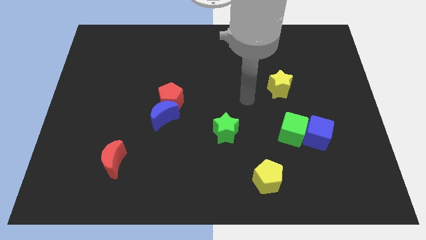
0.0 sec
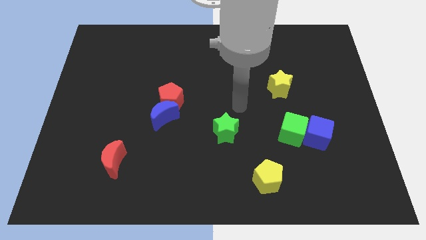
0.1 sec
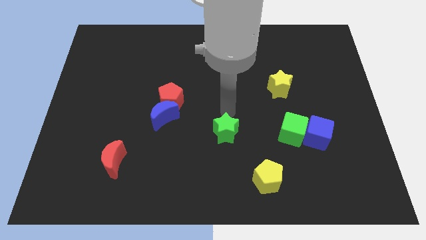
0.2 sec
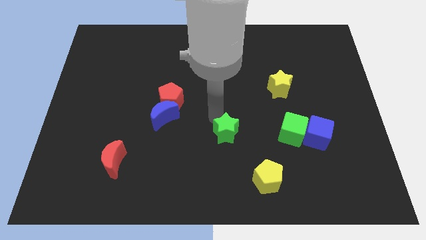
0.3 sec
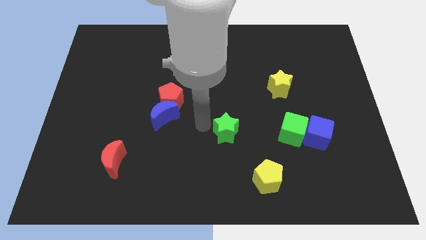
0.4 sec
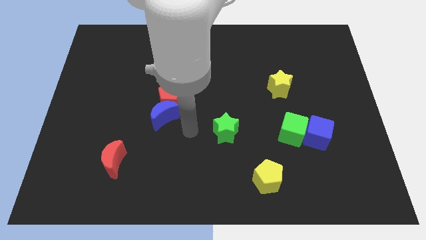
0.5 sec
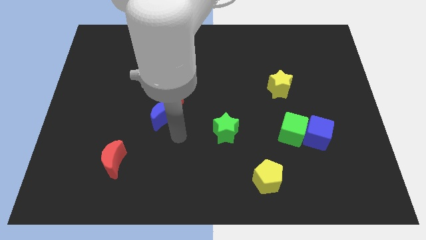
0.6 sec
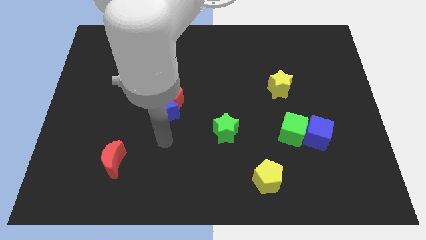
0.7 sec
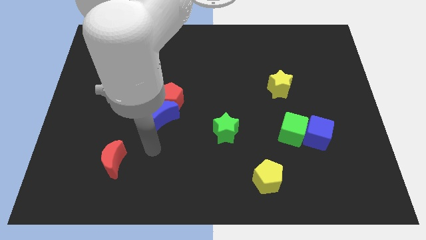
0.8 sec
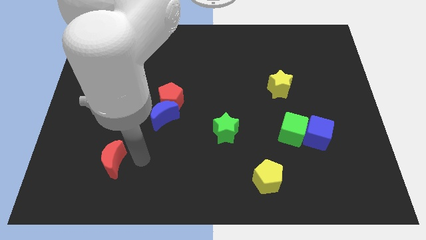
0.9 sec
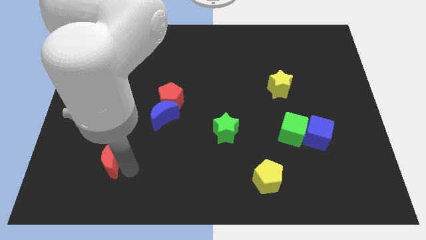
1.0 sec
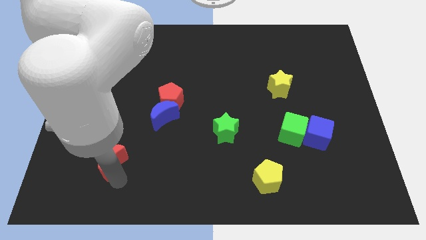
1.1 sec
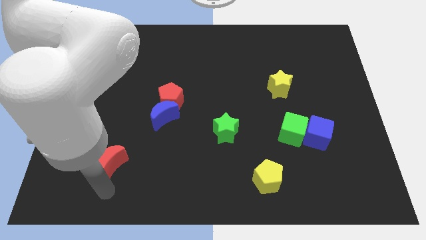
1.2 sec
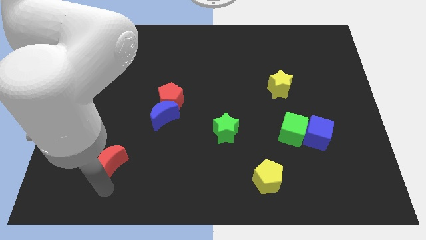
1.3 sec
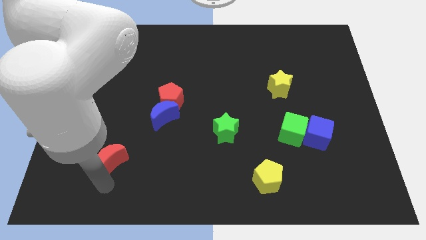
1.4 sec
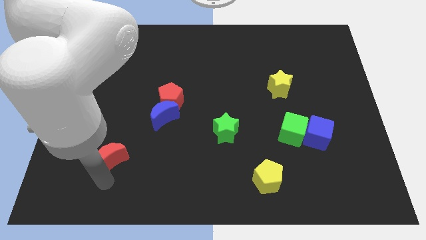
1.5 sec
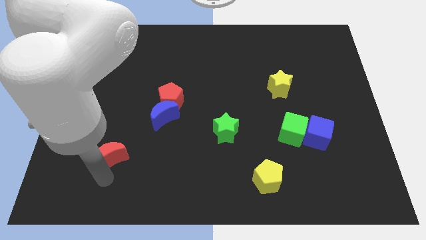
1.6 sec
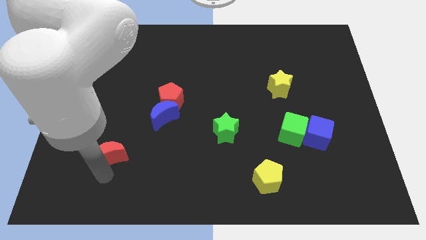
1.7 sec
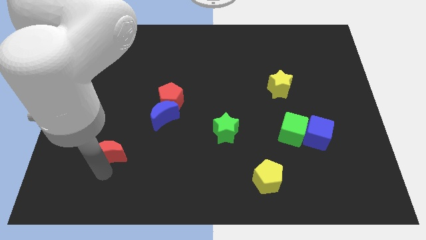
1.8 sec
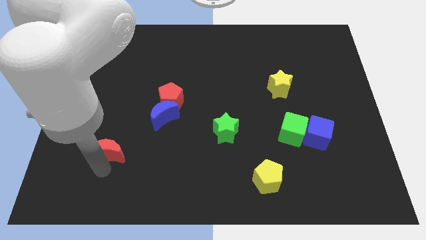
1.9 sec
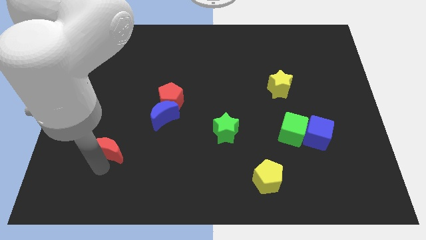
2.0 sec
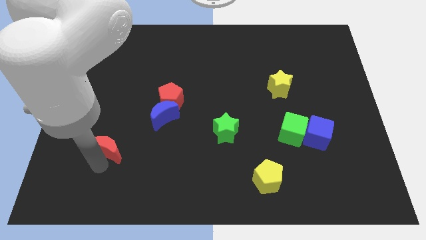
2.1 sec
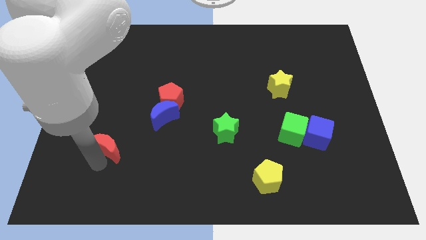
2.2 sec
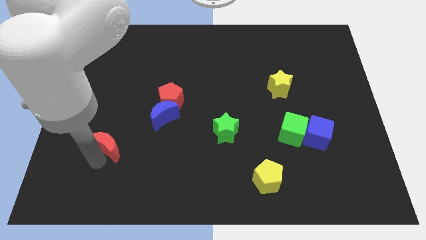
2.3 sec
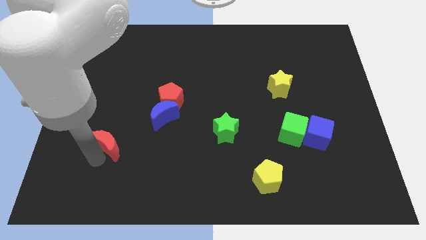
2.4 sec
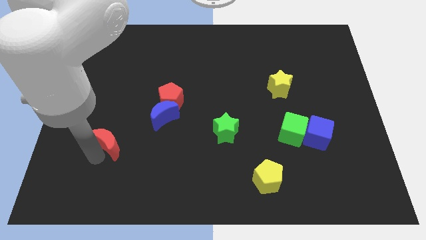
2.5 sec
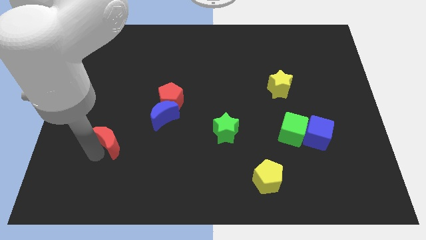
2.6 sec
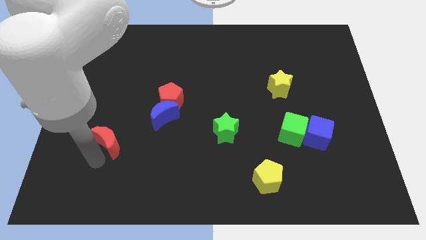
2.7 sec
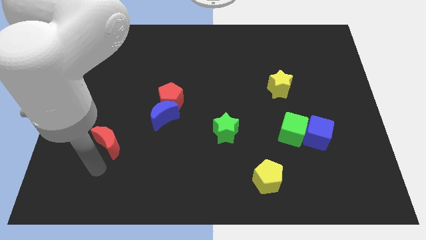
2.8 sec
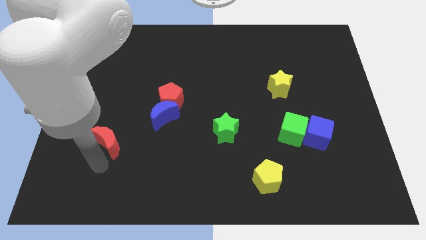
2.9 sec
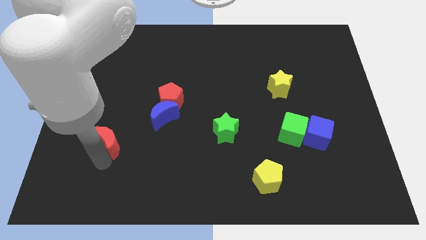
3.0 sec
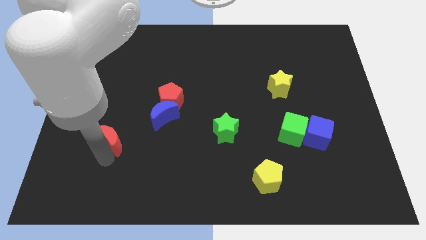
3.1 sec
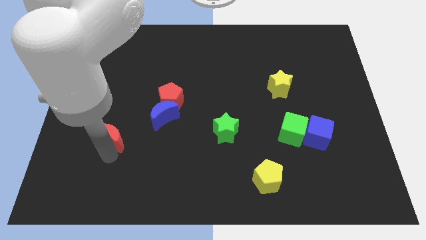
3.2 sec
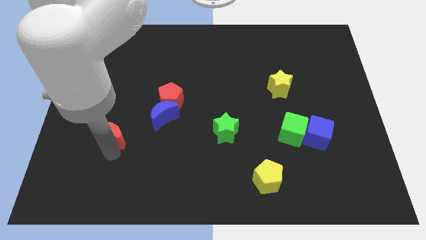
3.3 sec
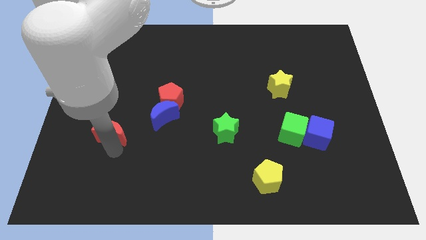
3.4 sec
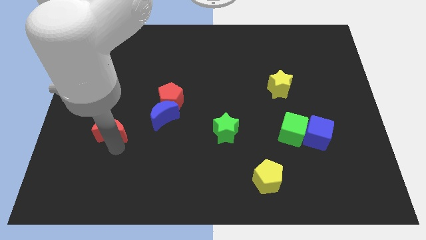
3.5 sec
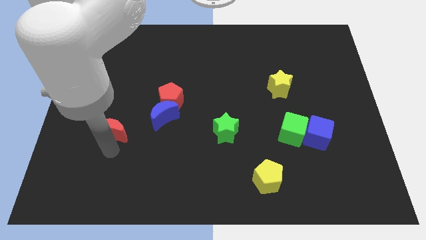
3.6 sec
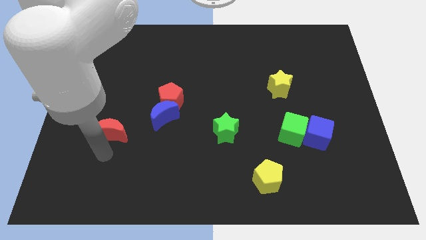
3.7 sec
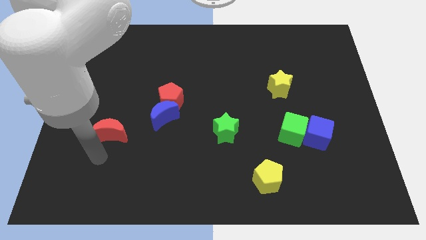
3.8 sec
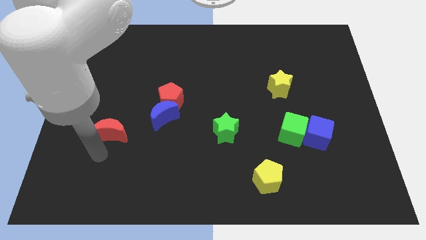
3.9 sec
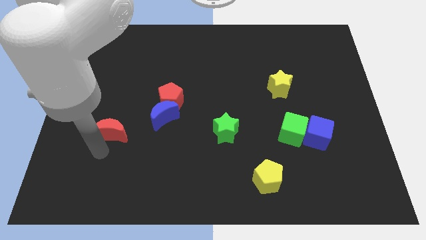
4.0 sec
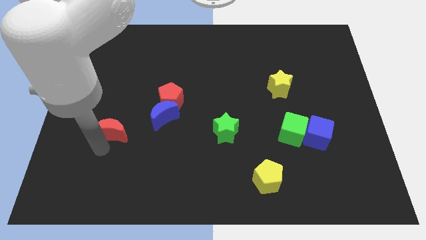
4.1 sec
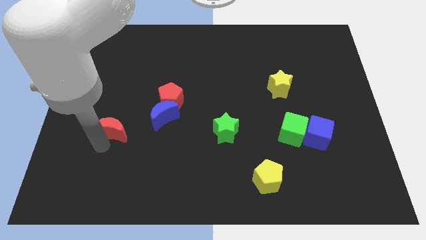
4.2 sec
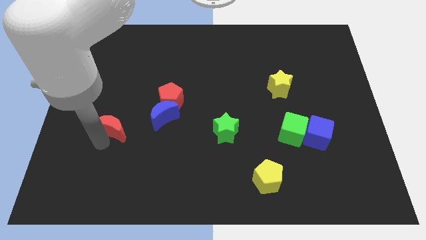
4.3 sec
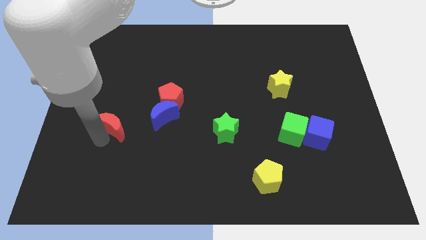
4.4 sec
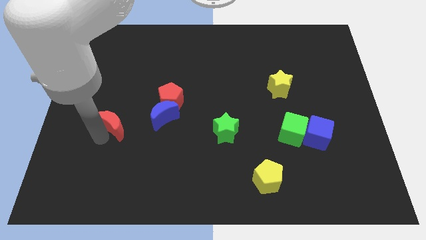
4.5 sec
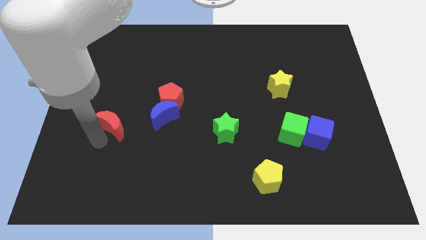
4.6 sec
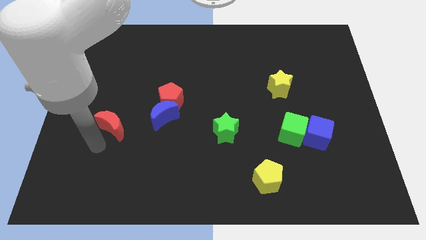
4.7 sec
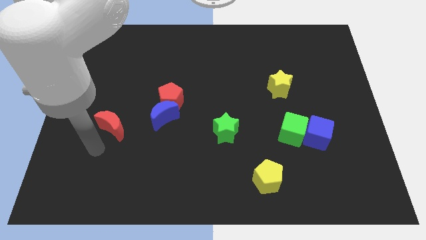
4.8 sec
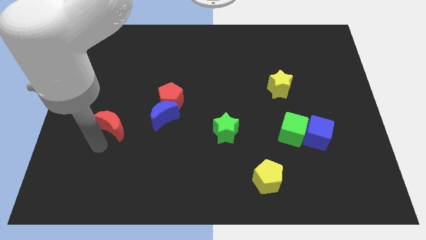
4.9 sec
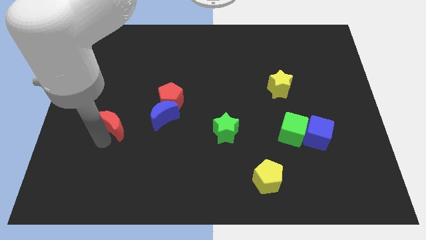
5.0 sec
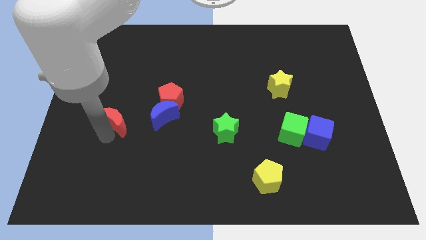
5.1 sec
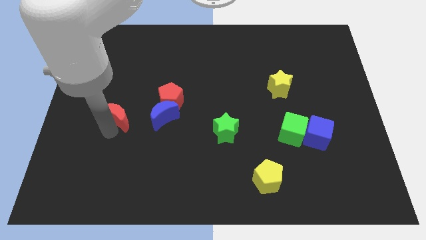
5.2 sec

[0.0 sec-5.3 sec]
slide the red moon to the left of the red pentagon

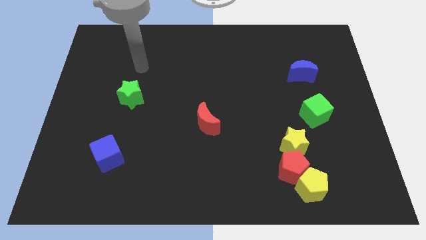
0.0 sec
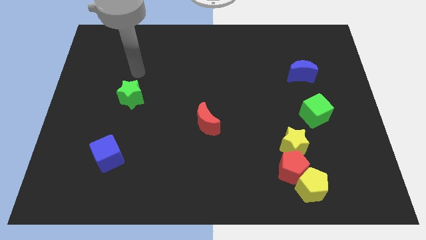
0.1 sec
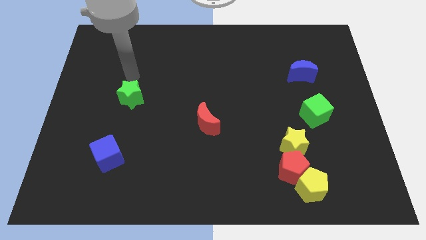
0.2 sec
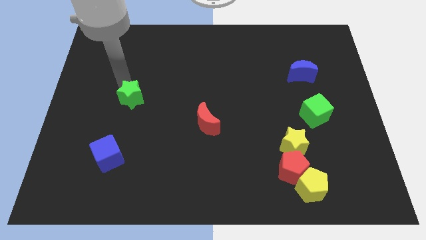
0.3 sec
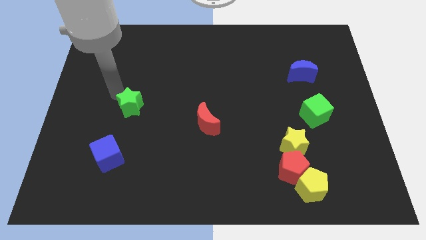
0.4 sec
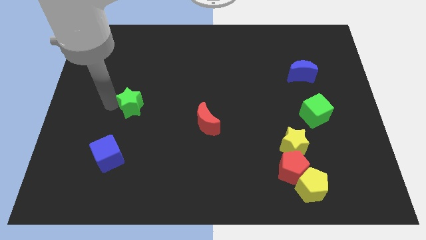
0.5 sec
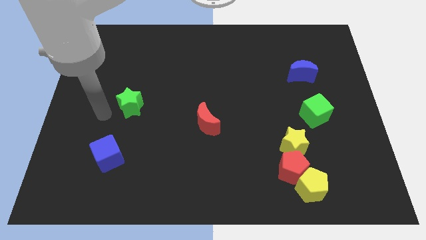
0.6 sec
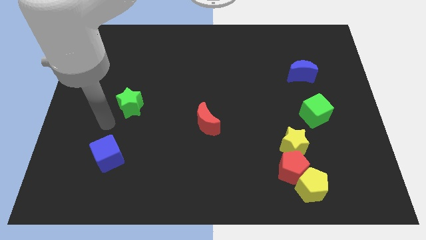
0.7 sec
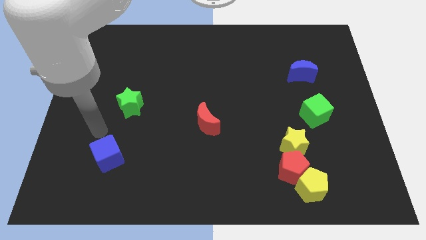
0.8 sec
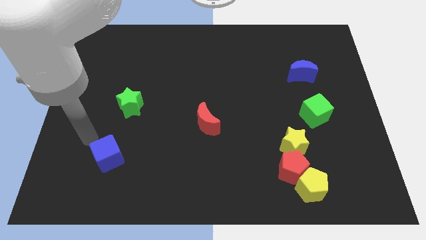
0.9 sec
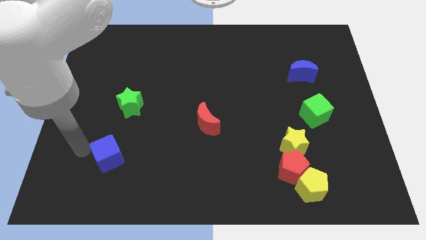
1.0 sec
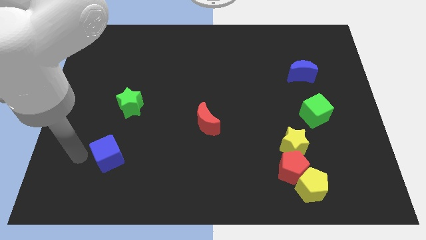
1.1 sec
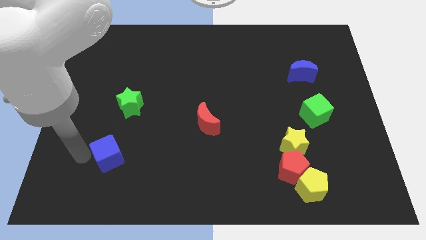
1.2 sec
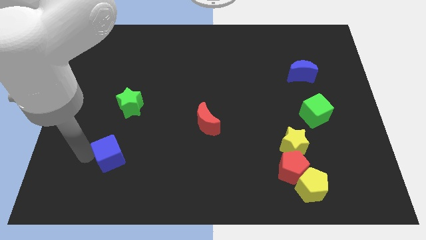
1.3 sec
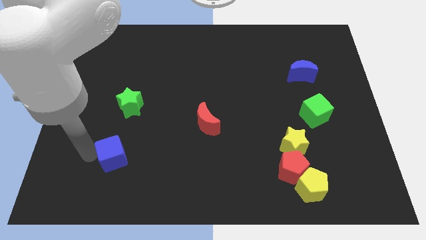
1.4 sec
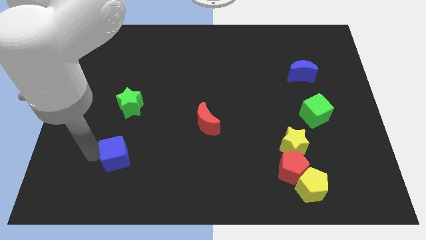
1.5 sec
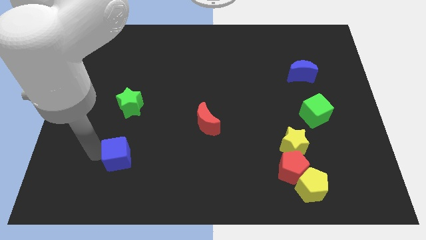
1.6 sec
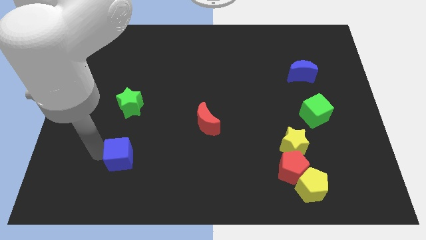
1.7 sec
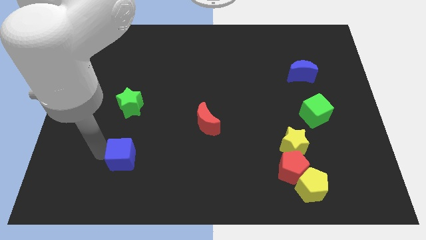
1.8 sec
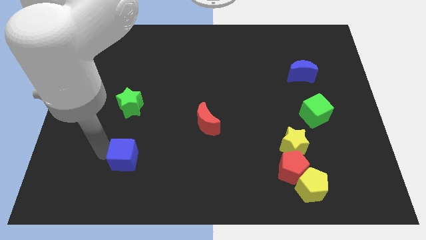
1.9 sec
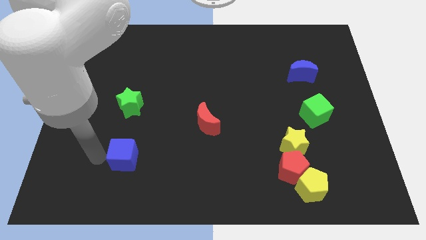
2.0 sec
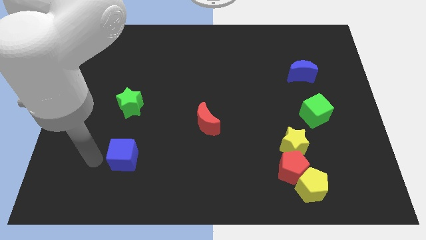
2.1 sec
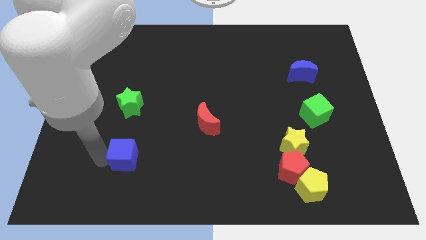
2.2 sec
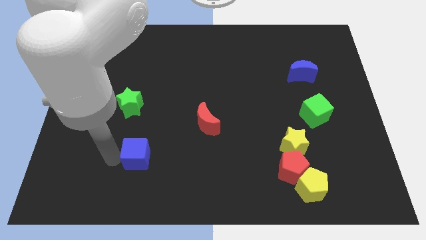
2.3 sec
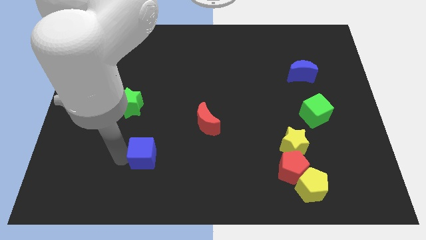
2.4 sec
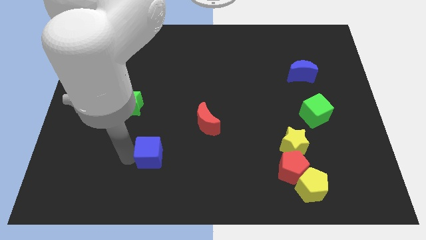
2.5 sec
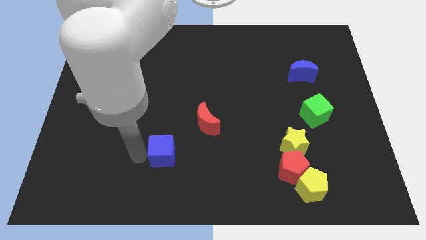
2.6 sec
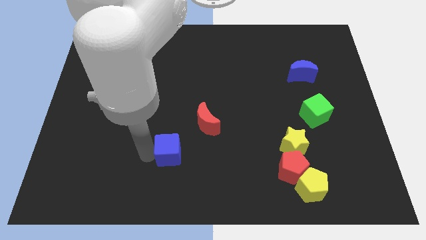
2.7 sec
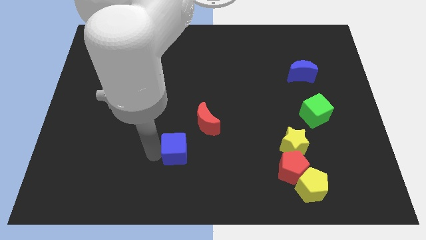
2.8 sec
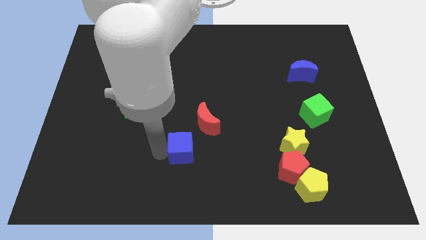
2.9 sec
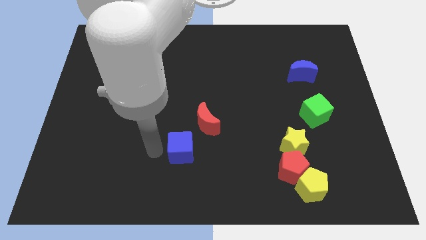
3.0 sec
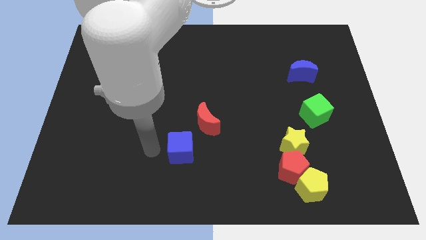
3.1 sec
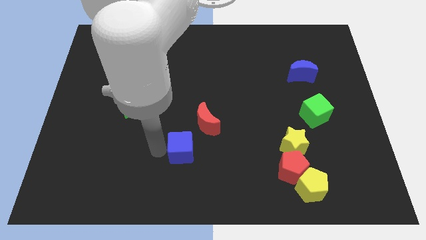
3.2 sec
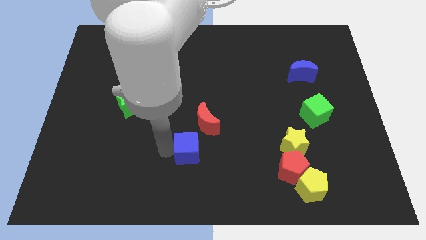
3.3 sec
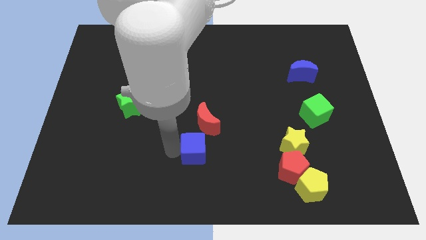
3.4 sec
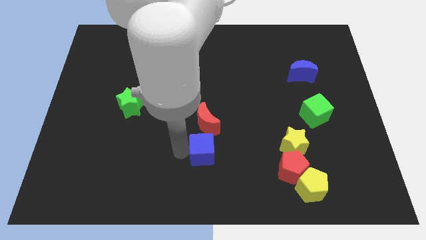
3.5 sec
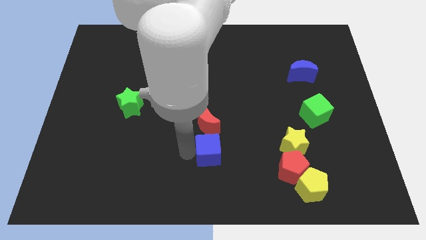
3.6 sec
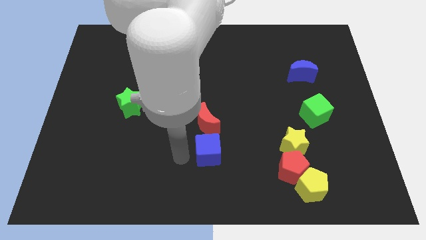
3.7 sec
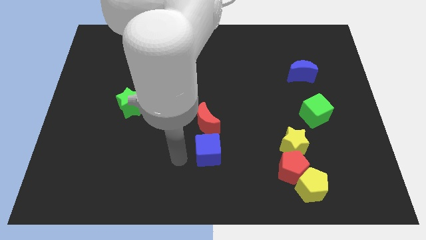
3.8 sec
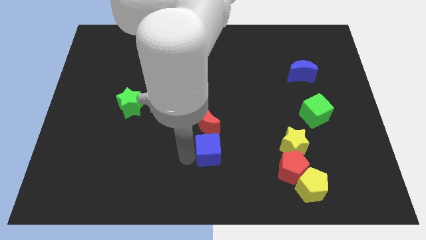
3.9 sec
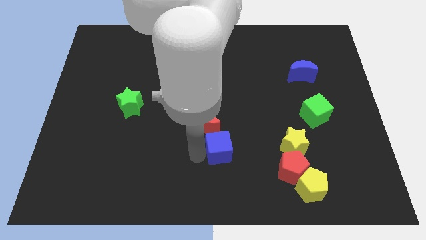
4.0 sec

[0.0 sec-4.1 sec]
move the blue cube left of the yellow star
